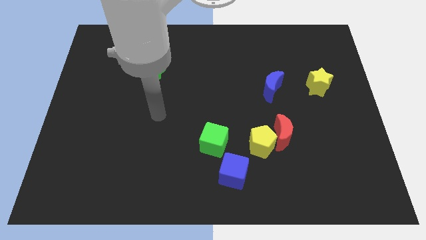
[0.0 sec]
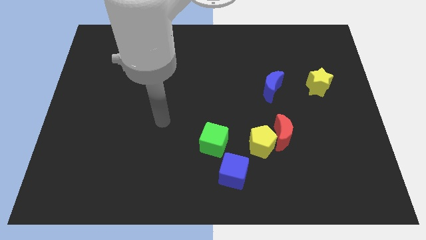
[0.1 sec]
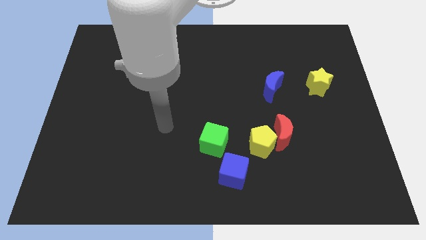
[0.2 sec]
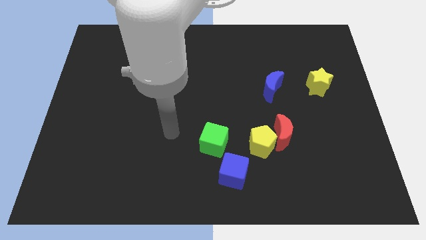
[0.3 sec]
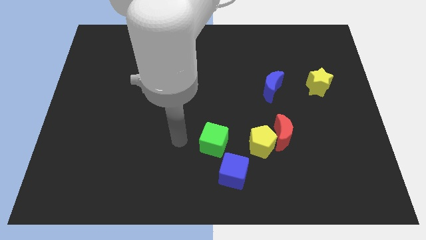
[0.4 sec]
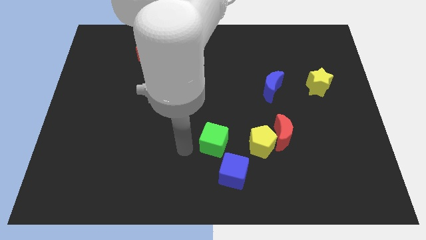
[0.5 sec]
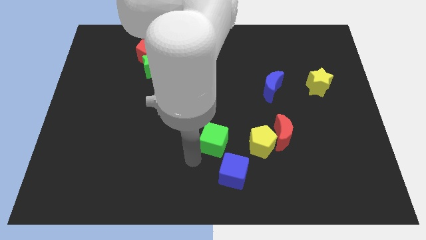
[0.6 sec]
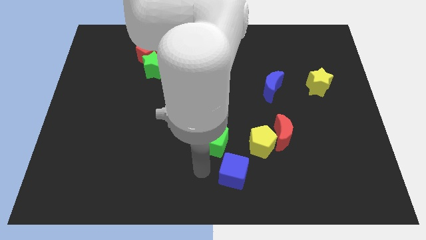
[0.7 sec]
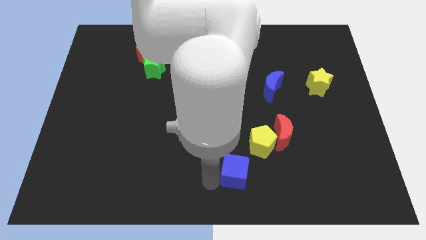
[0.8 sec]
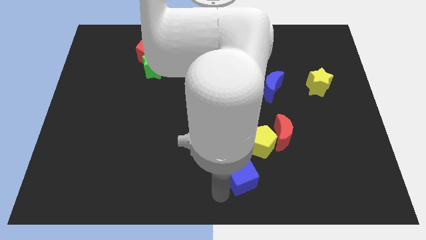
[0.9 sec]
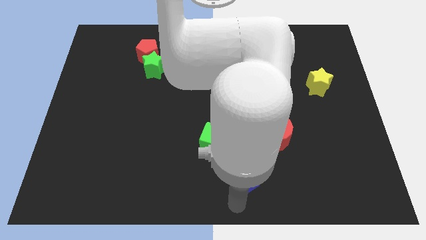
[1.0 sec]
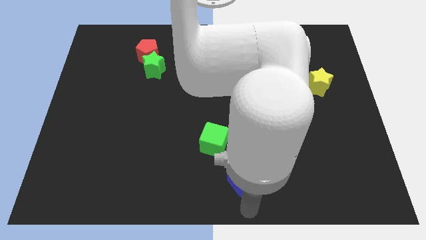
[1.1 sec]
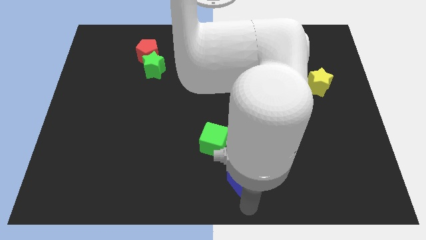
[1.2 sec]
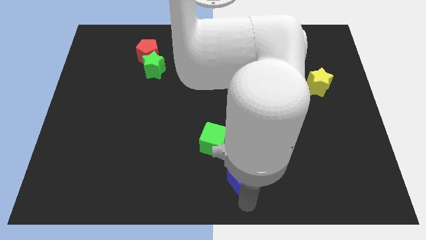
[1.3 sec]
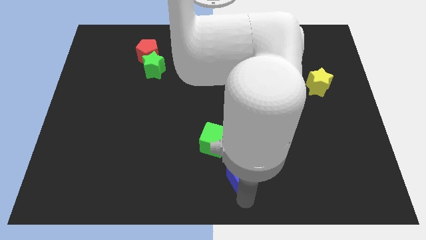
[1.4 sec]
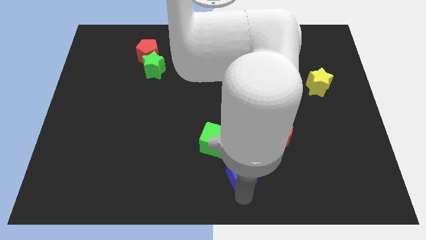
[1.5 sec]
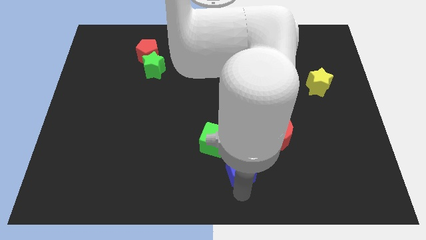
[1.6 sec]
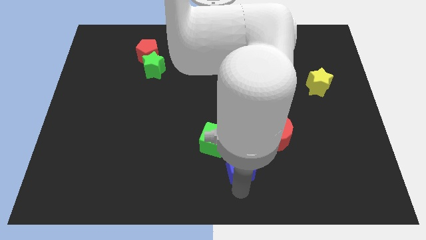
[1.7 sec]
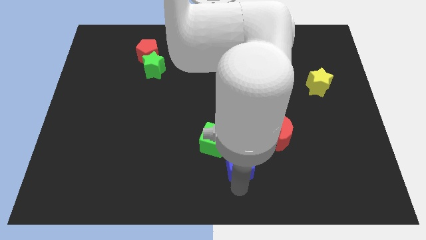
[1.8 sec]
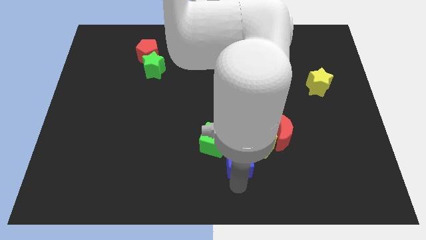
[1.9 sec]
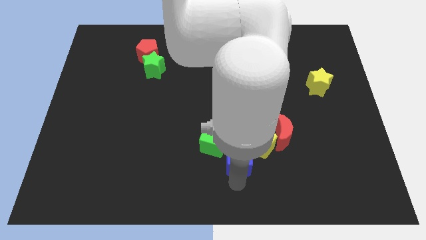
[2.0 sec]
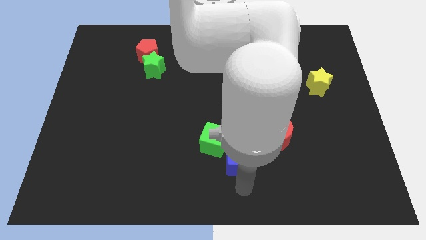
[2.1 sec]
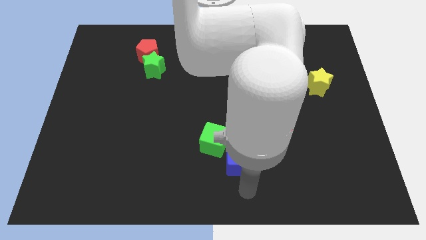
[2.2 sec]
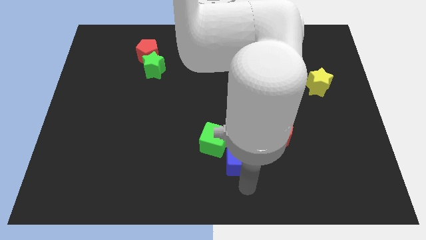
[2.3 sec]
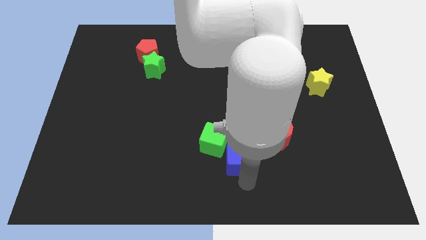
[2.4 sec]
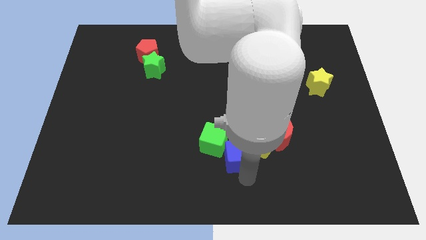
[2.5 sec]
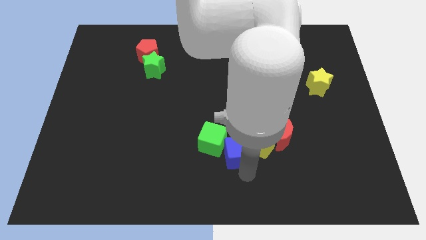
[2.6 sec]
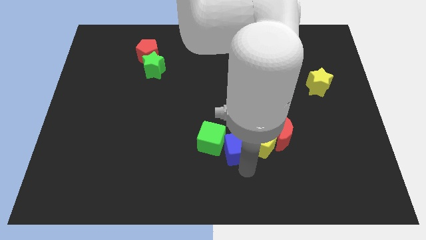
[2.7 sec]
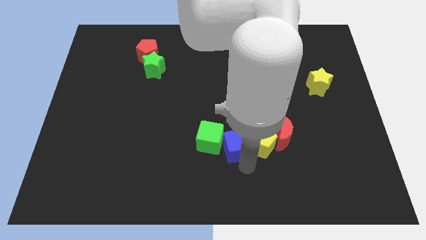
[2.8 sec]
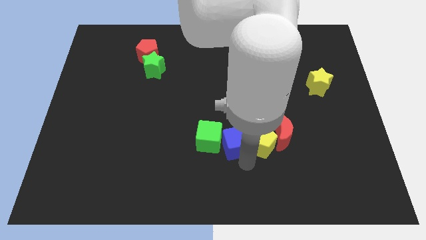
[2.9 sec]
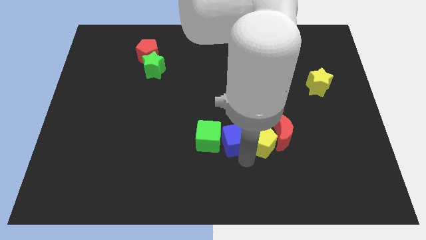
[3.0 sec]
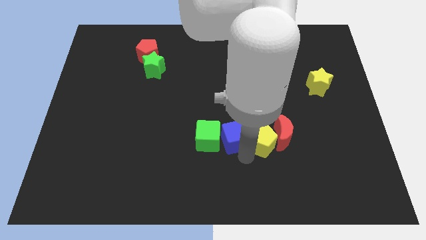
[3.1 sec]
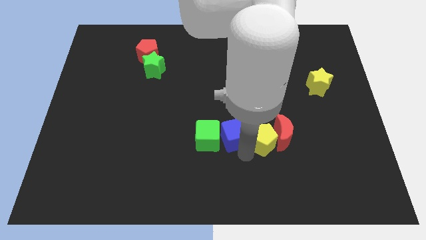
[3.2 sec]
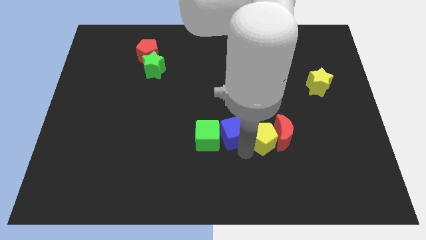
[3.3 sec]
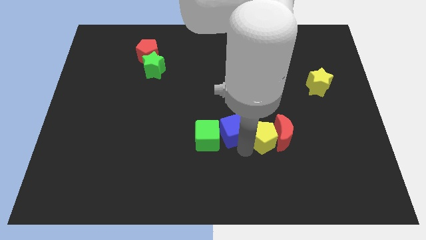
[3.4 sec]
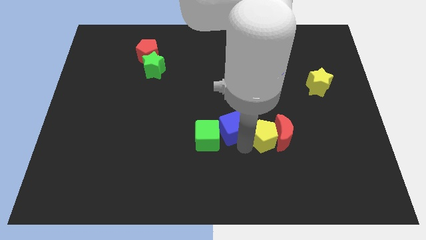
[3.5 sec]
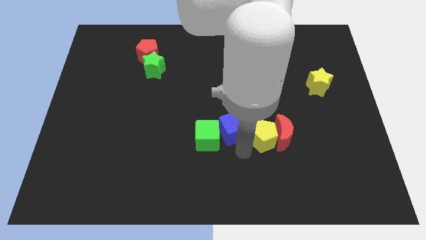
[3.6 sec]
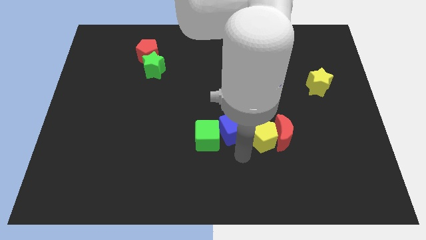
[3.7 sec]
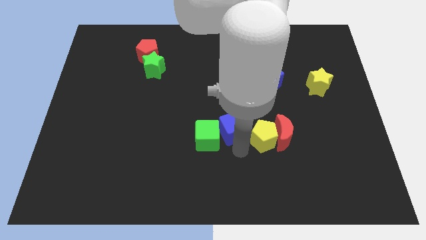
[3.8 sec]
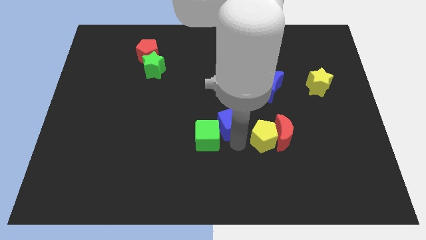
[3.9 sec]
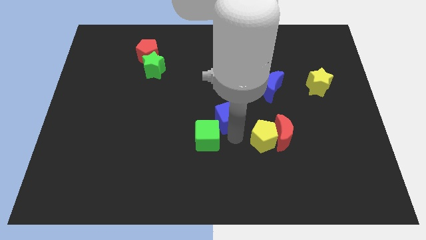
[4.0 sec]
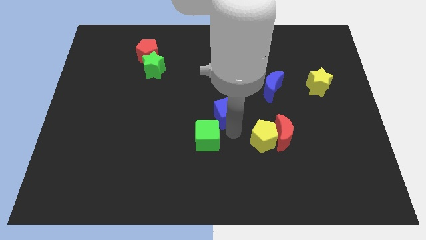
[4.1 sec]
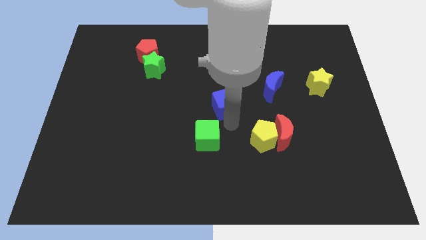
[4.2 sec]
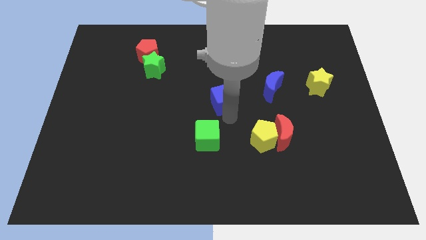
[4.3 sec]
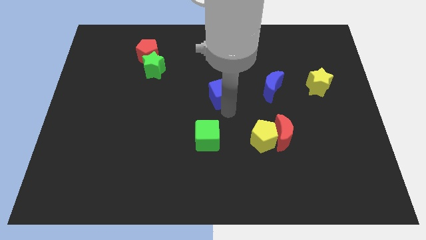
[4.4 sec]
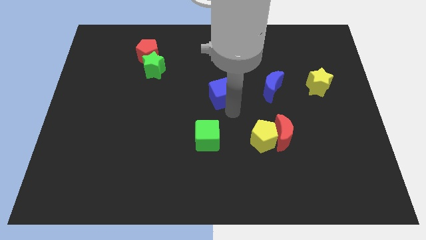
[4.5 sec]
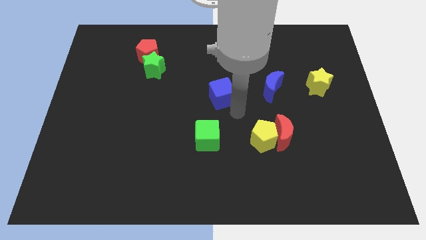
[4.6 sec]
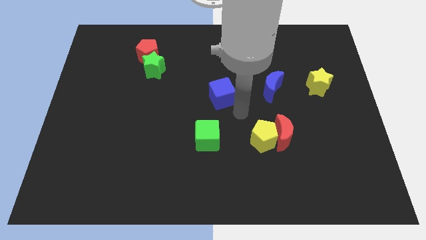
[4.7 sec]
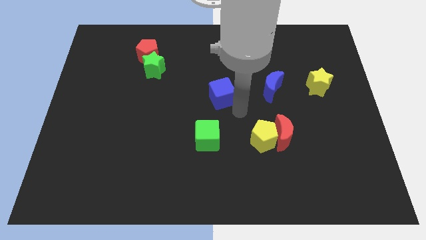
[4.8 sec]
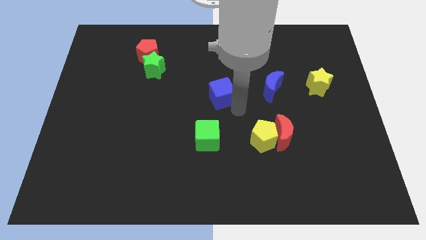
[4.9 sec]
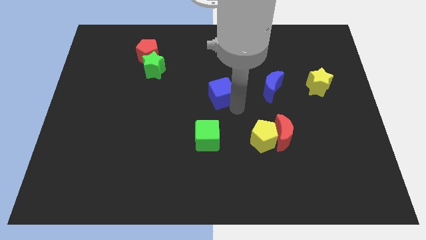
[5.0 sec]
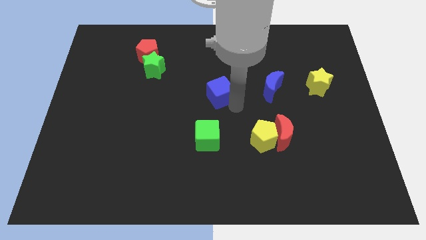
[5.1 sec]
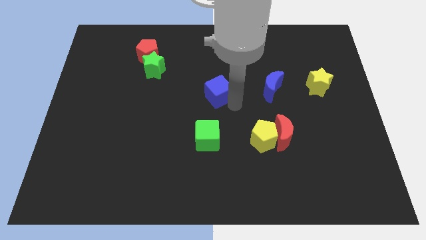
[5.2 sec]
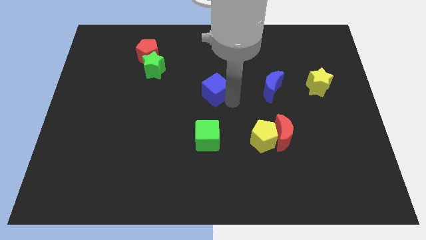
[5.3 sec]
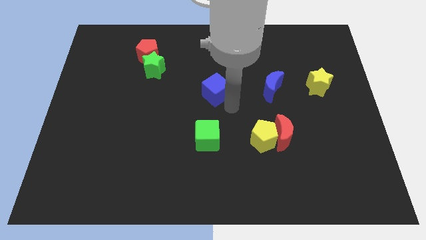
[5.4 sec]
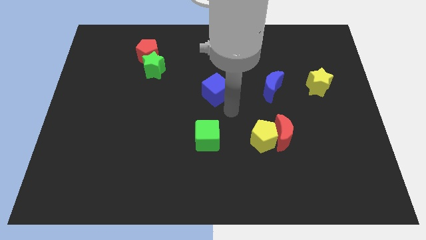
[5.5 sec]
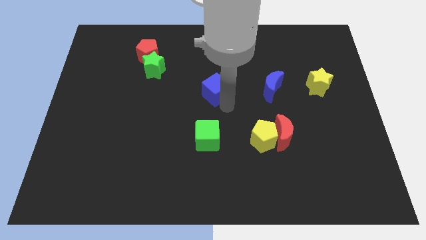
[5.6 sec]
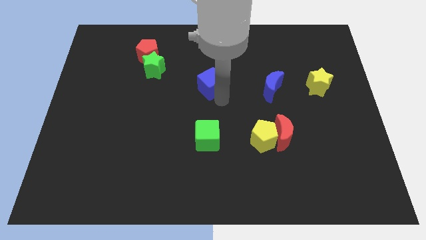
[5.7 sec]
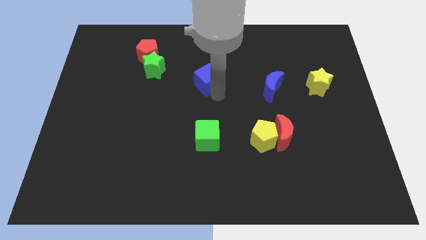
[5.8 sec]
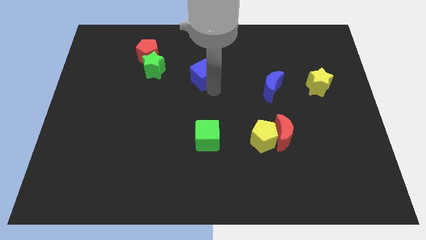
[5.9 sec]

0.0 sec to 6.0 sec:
put the blue cube to the right side of the green star
